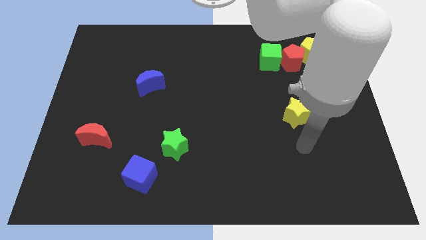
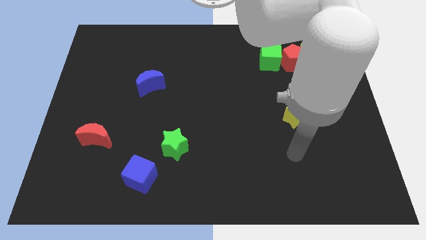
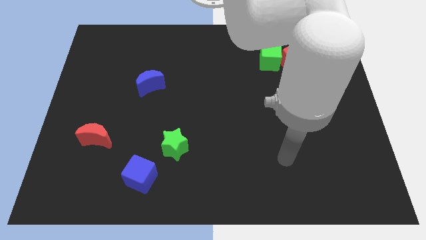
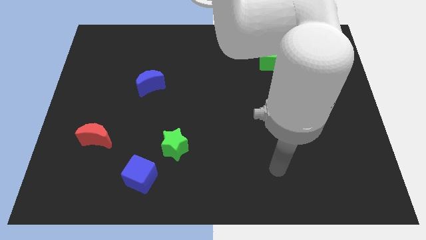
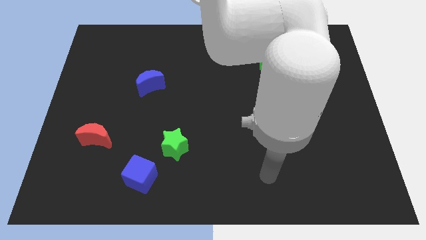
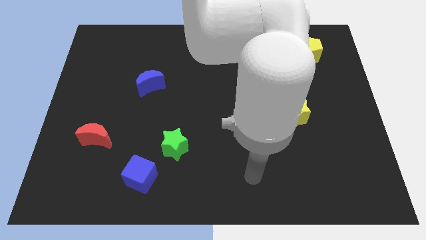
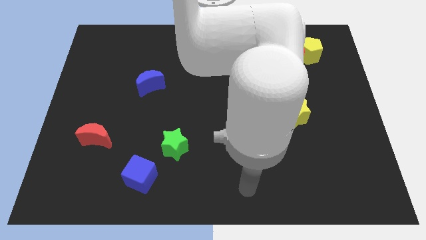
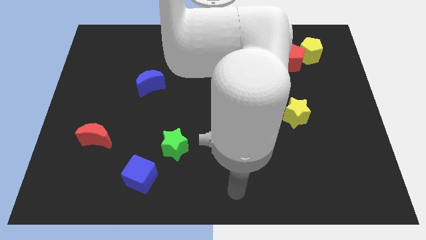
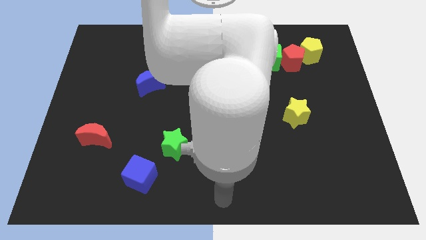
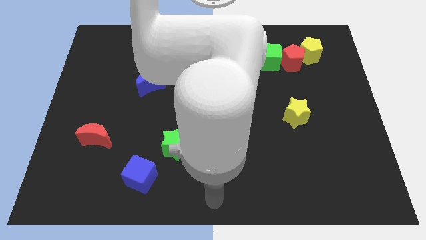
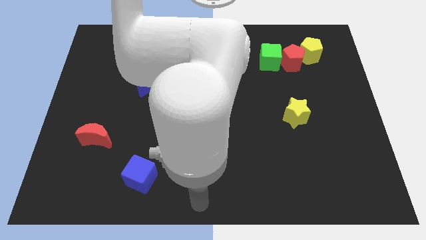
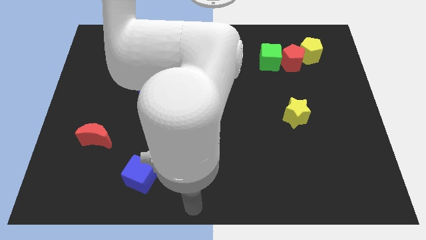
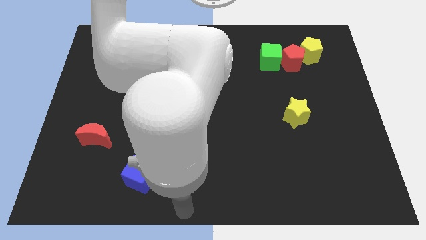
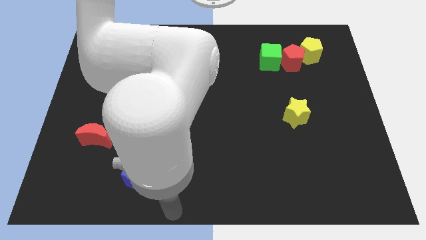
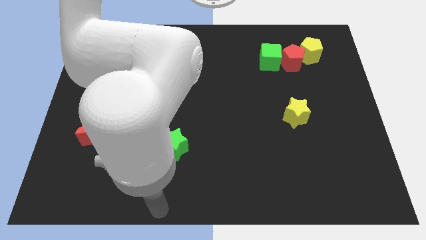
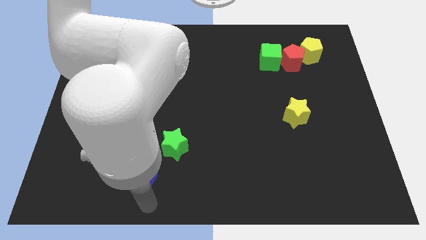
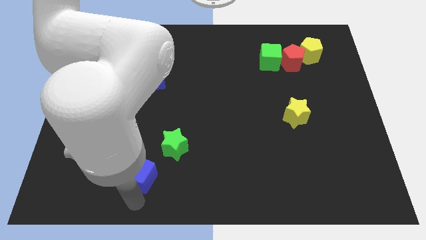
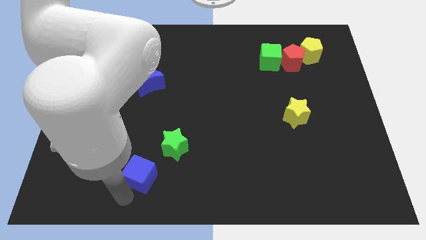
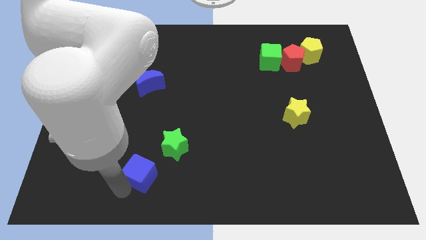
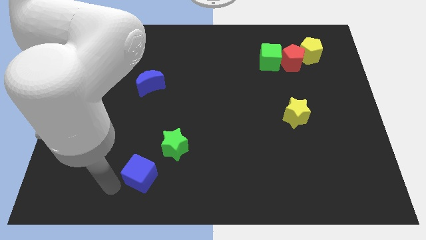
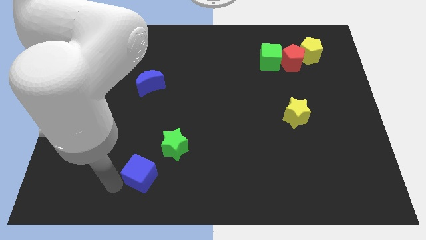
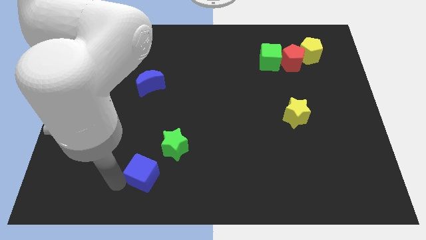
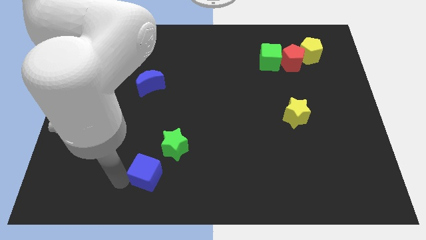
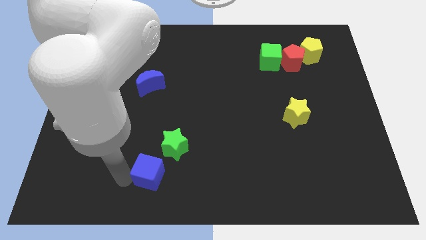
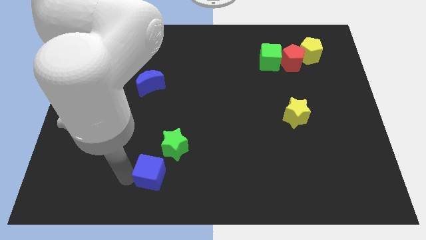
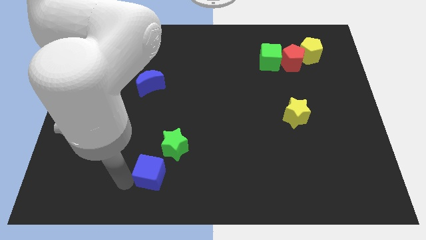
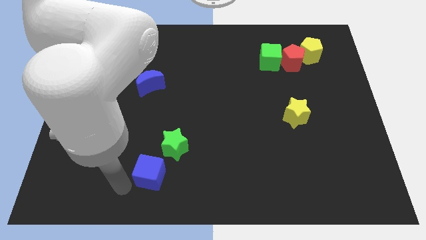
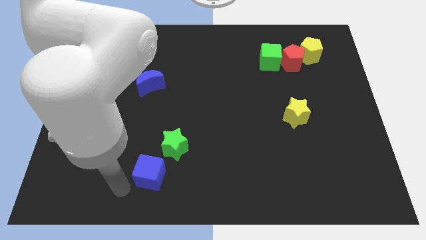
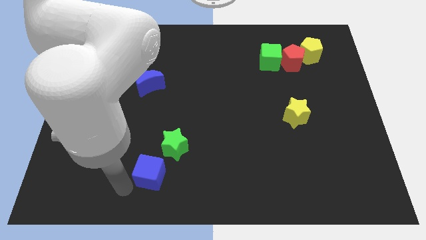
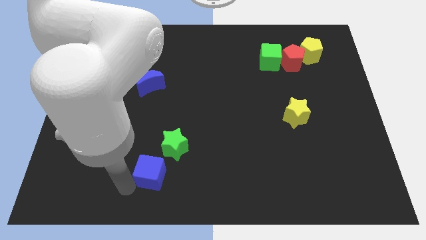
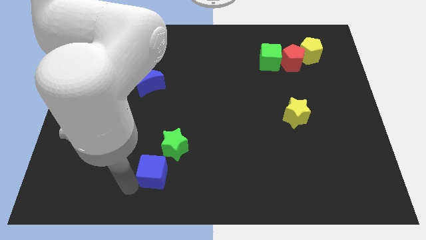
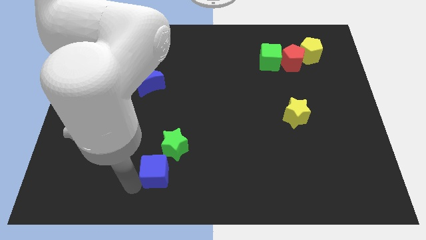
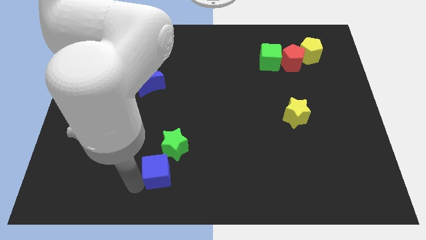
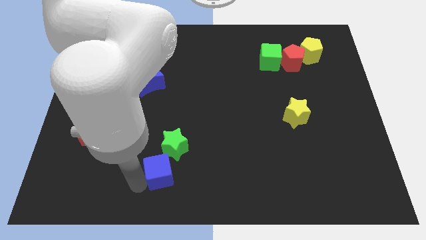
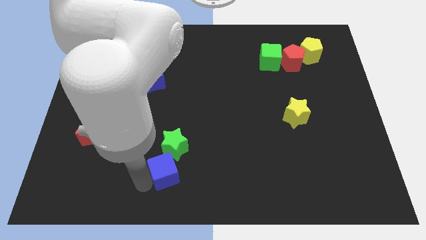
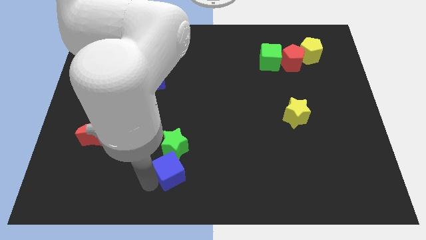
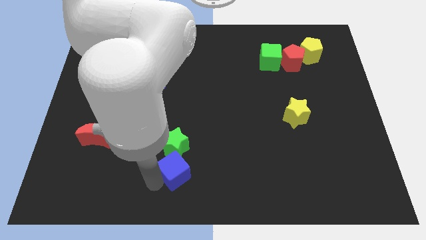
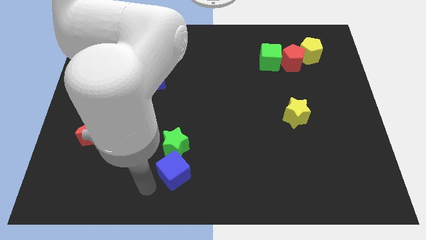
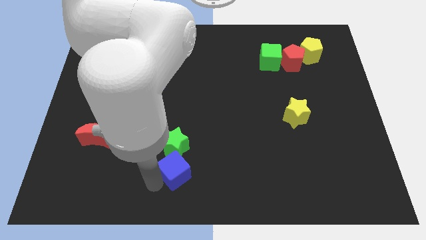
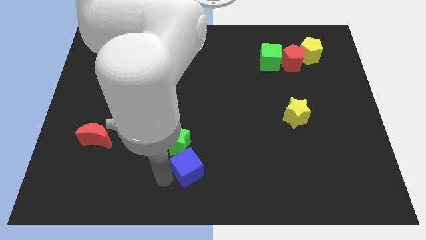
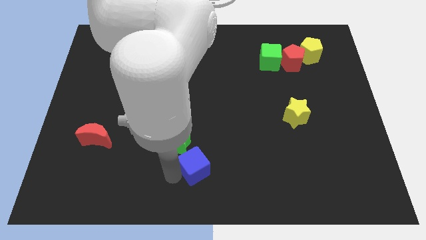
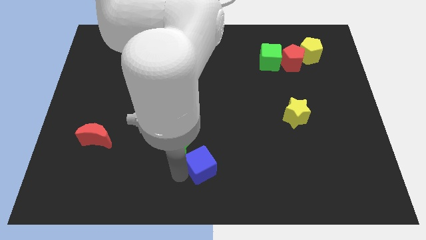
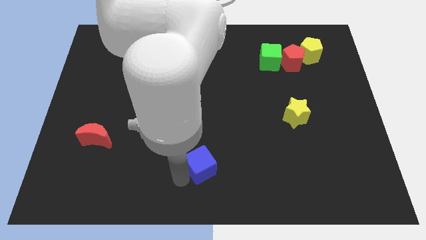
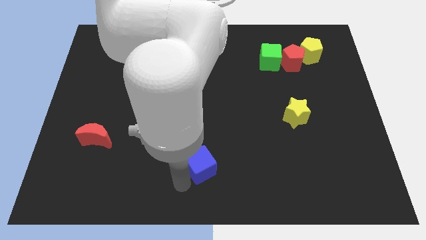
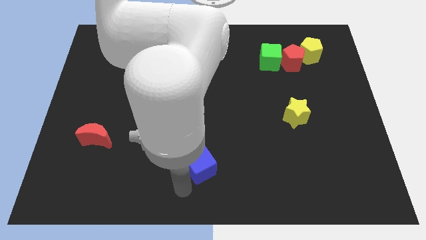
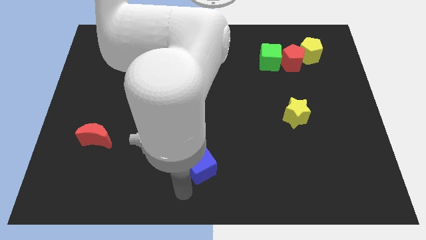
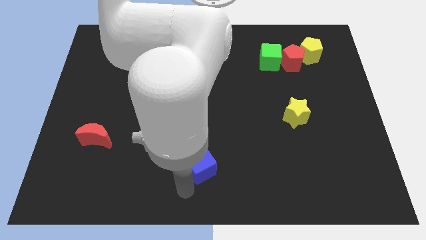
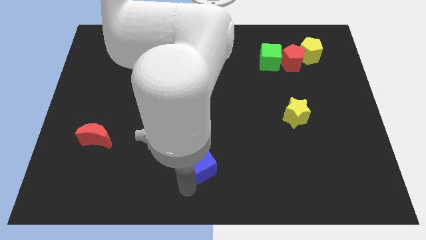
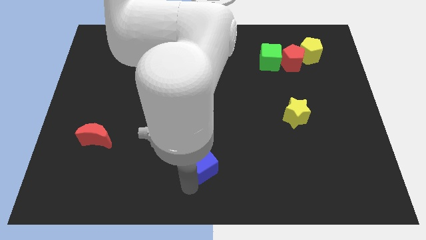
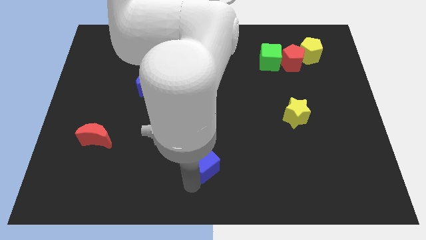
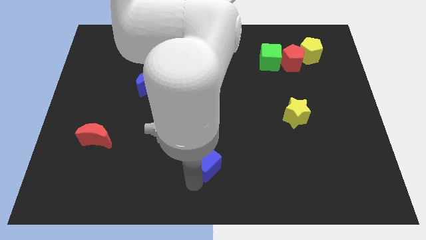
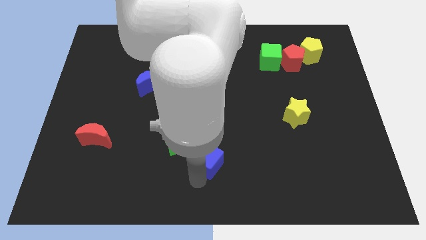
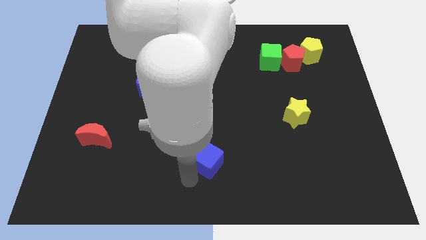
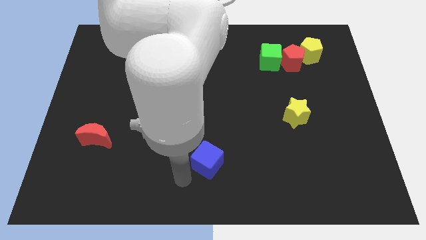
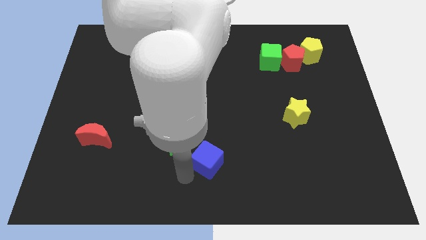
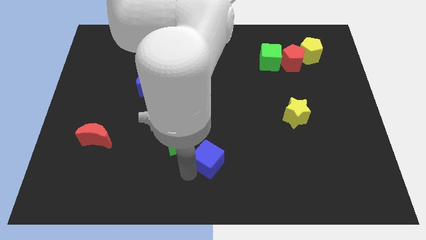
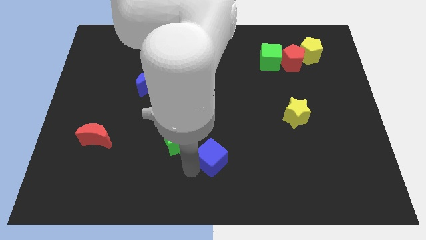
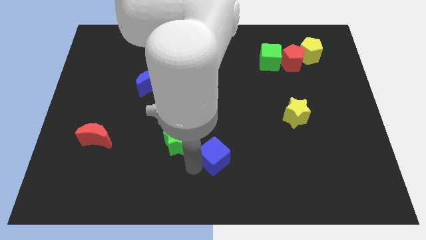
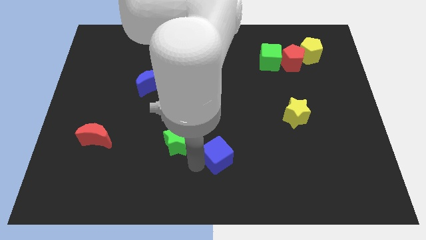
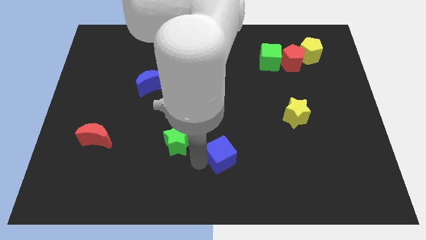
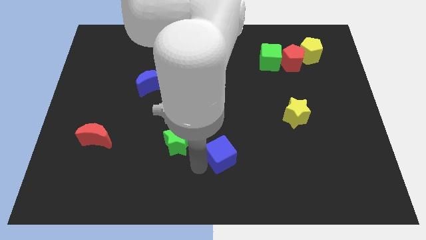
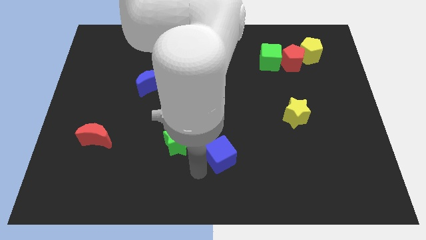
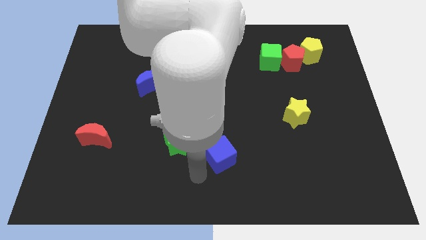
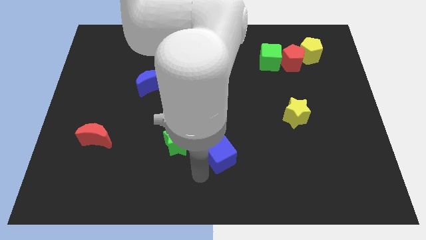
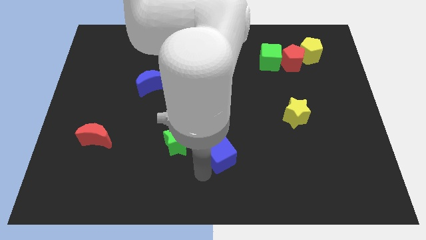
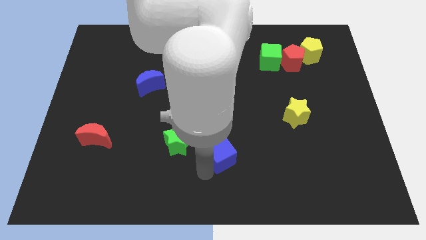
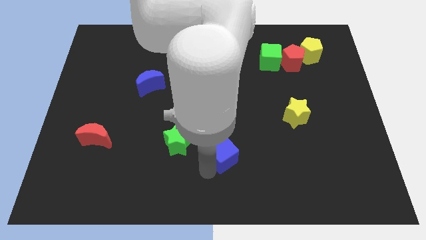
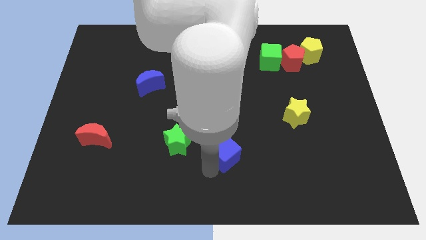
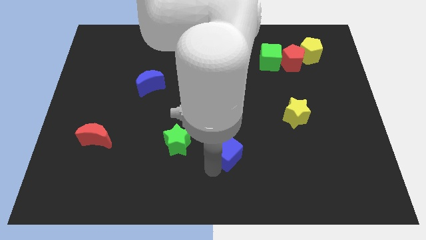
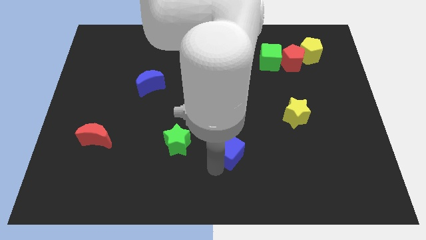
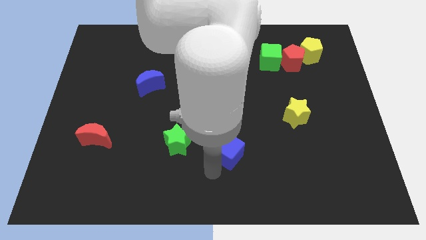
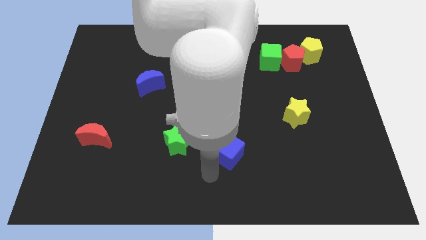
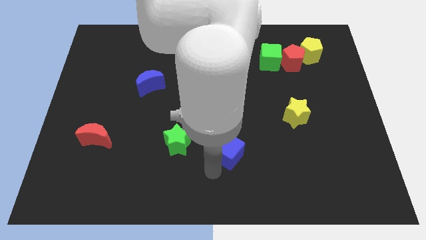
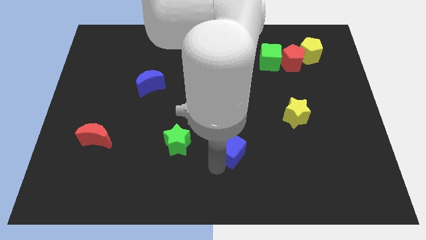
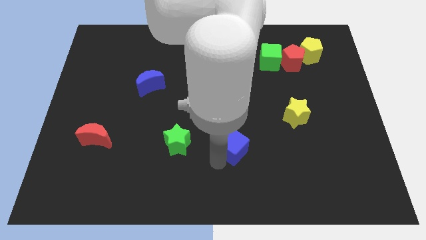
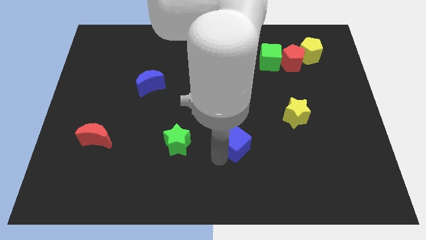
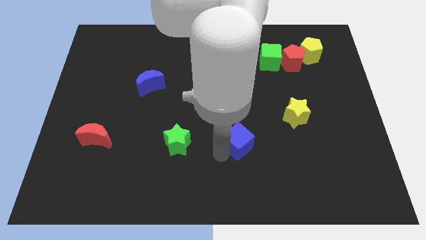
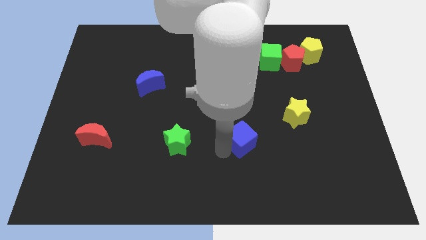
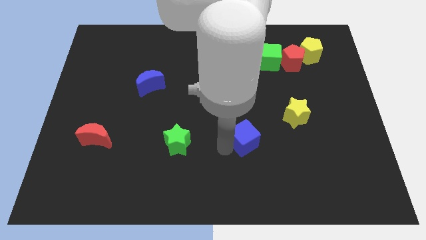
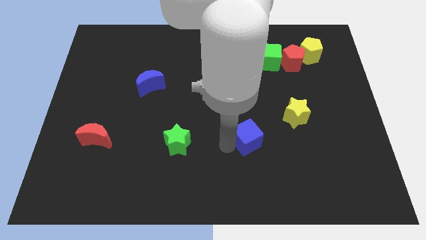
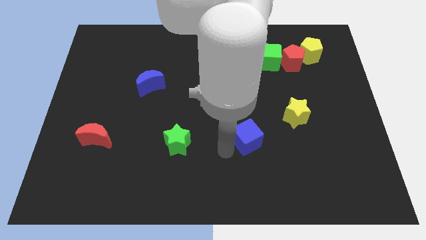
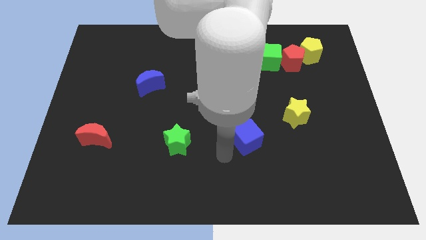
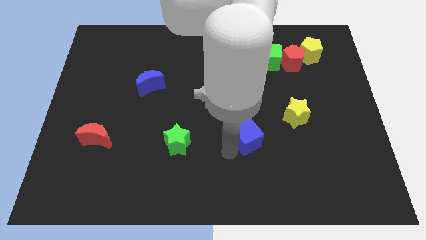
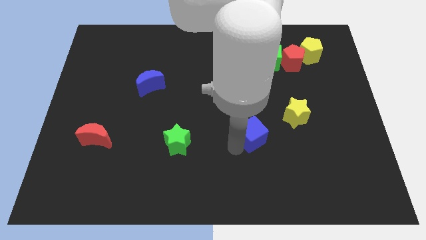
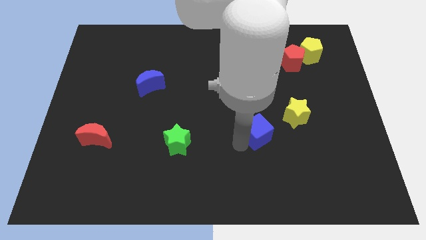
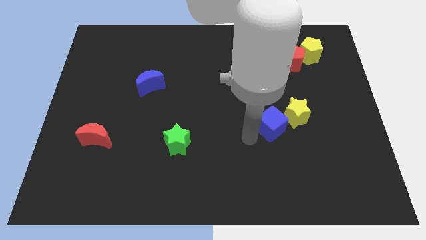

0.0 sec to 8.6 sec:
slide the blue cube towards the yellow star

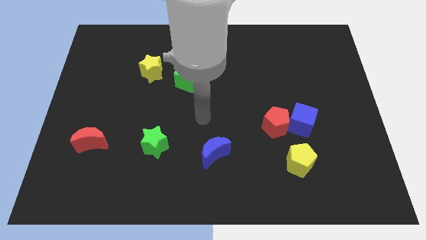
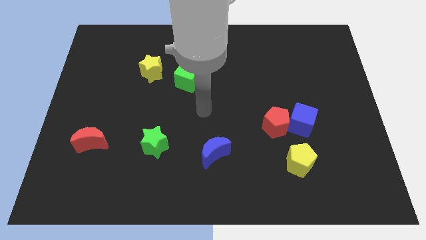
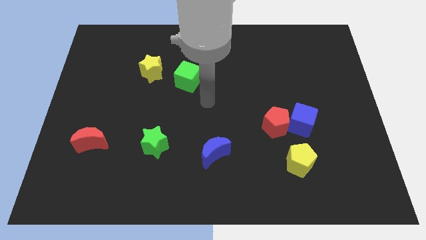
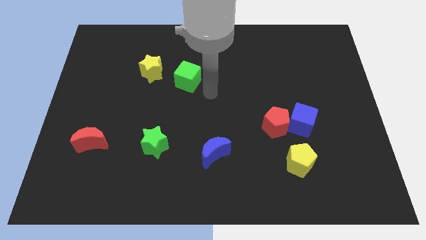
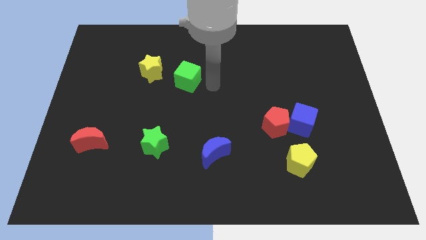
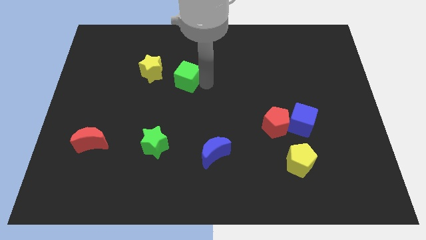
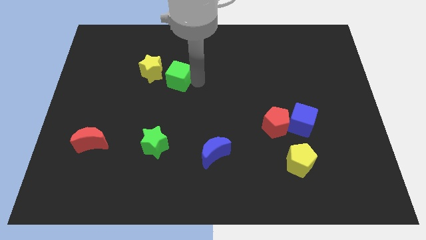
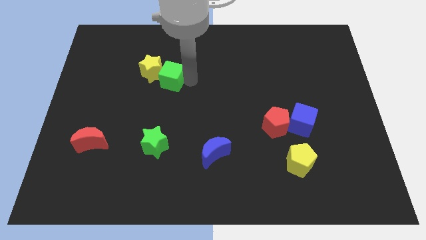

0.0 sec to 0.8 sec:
push the green cube towards the yellow star
